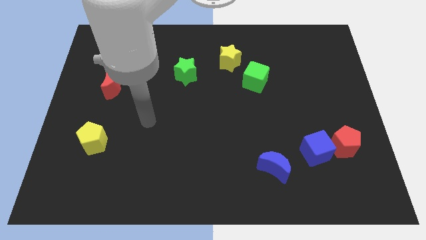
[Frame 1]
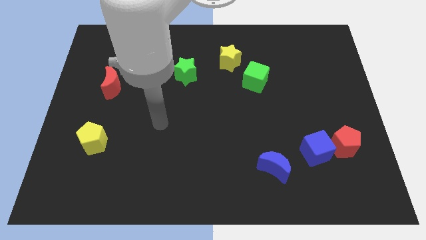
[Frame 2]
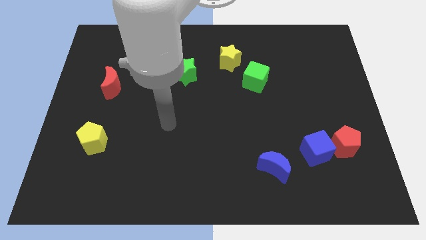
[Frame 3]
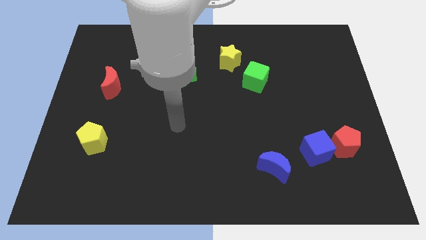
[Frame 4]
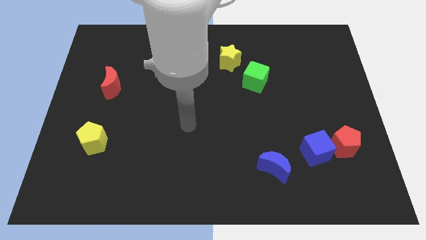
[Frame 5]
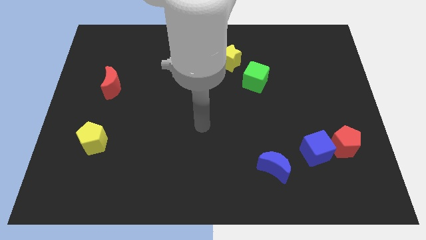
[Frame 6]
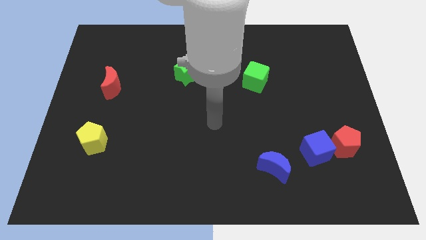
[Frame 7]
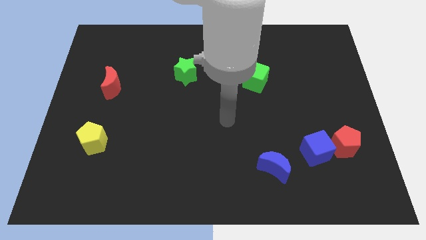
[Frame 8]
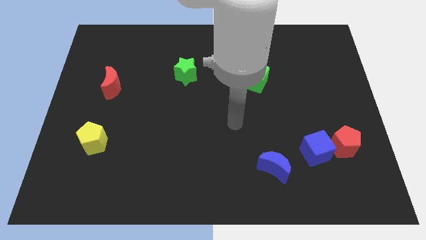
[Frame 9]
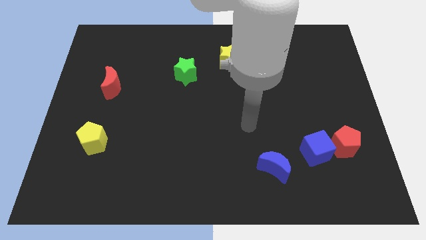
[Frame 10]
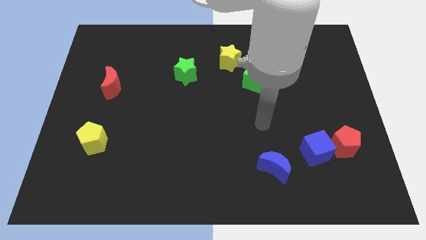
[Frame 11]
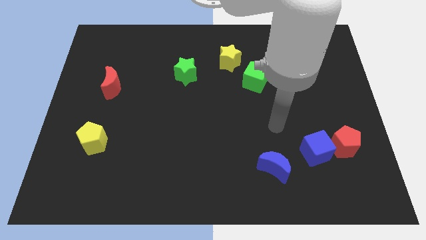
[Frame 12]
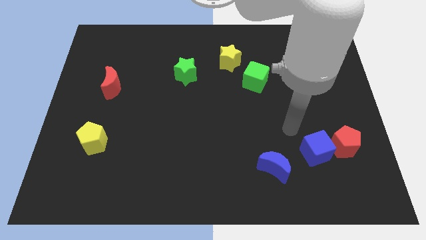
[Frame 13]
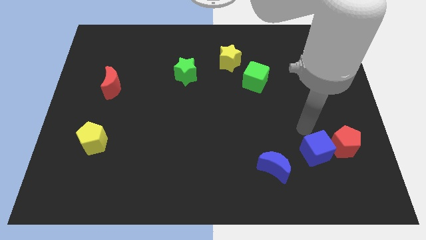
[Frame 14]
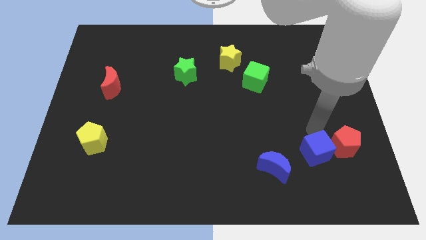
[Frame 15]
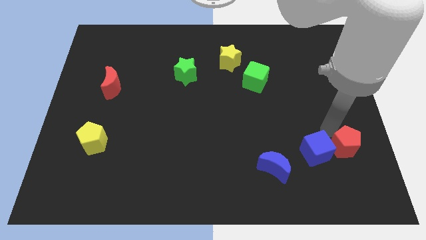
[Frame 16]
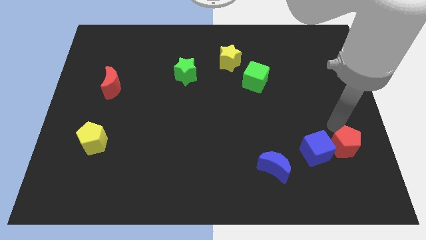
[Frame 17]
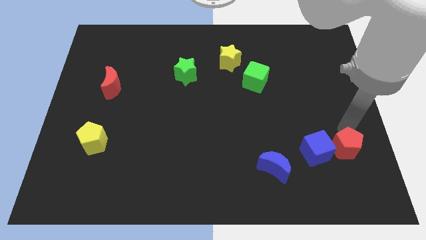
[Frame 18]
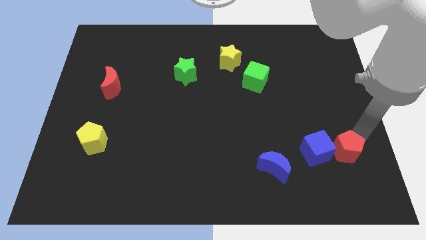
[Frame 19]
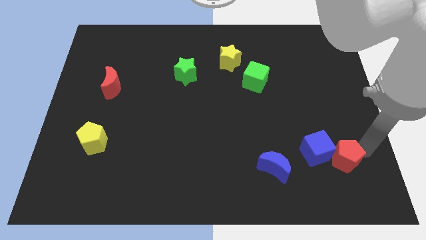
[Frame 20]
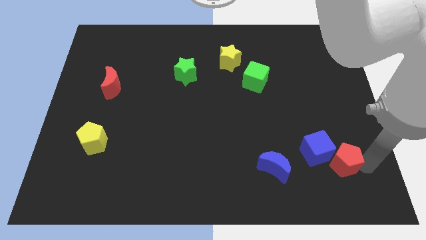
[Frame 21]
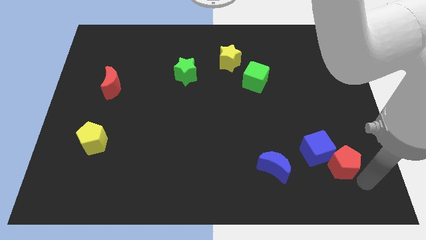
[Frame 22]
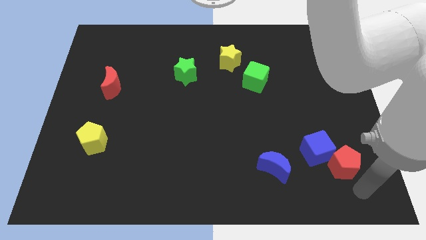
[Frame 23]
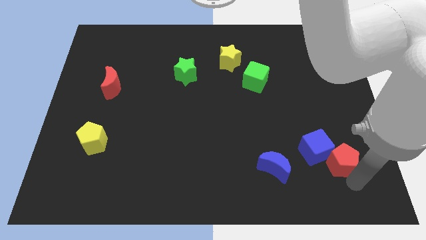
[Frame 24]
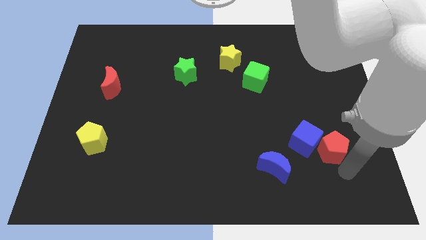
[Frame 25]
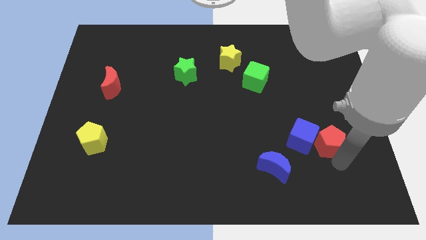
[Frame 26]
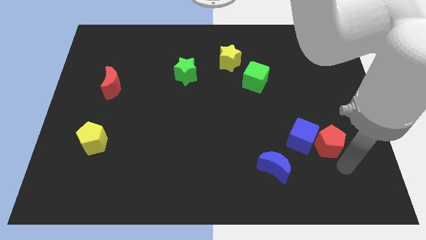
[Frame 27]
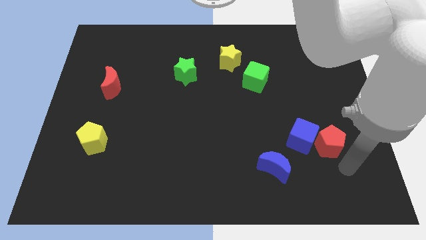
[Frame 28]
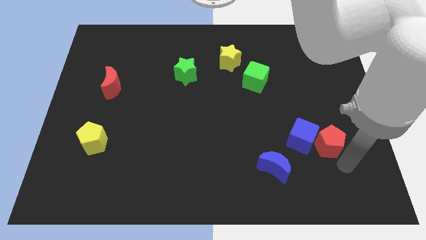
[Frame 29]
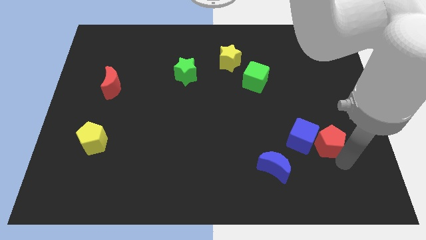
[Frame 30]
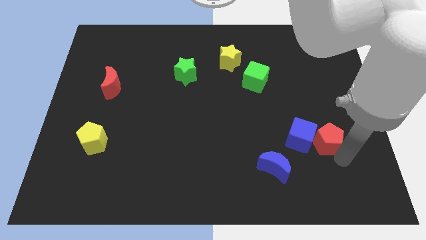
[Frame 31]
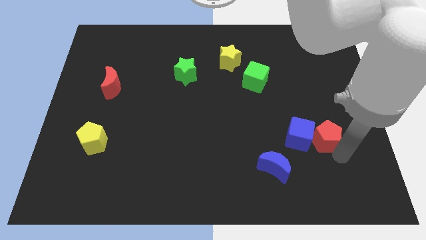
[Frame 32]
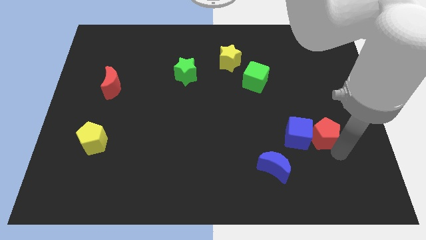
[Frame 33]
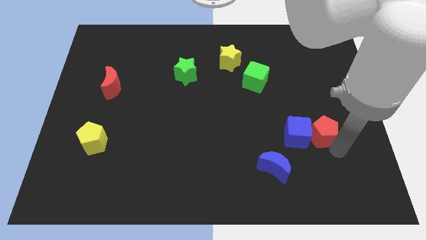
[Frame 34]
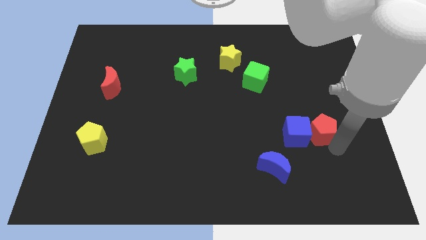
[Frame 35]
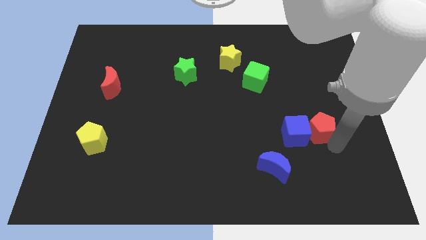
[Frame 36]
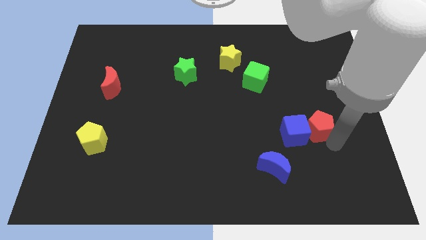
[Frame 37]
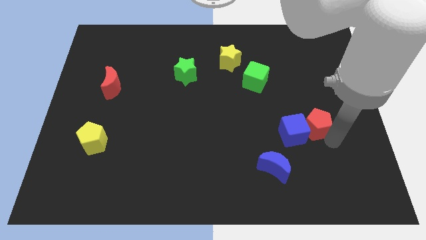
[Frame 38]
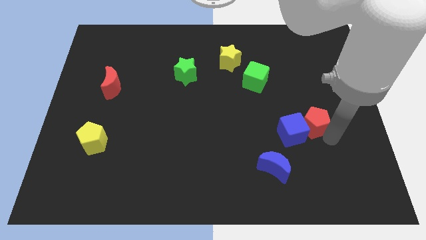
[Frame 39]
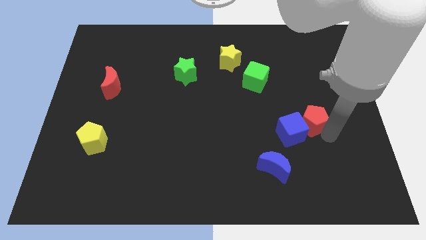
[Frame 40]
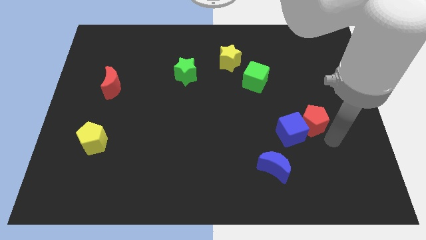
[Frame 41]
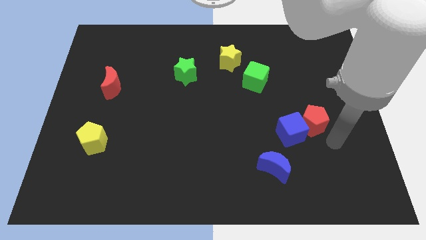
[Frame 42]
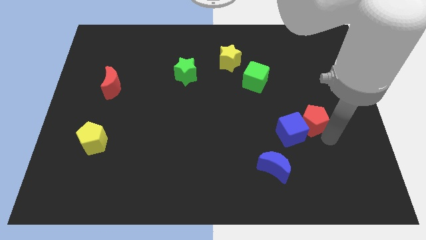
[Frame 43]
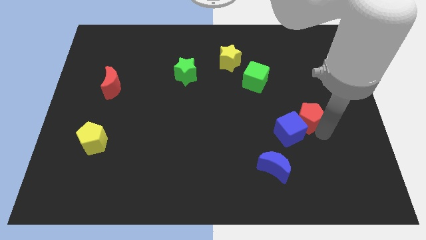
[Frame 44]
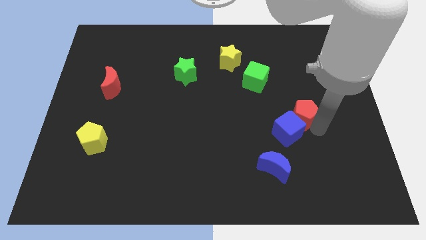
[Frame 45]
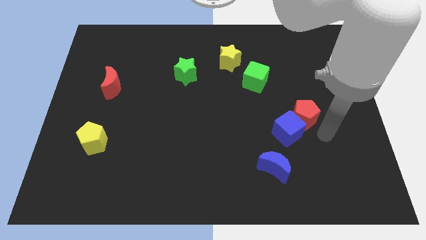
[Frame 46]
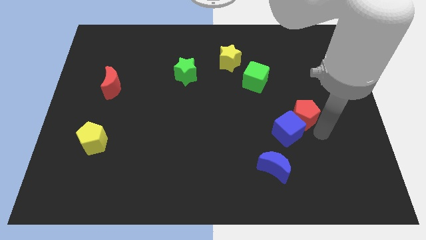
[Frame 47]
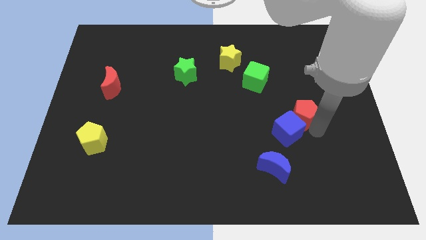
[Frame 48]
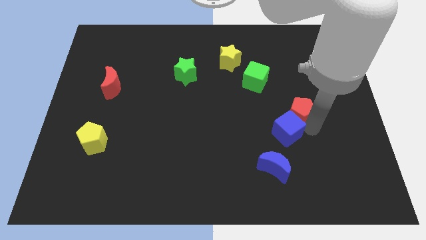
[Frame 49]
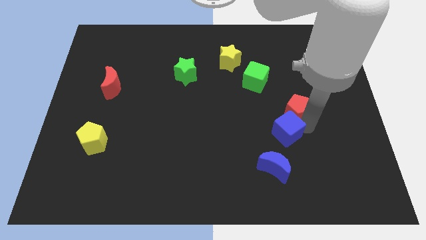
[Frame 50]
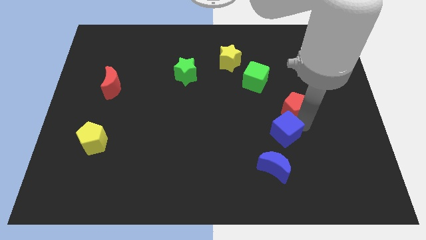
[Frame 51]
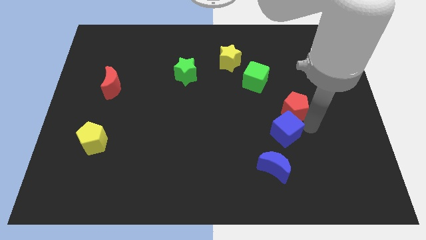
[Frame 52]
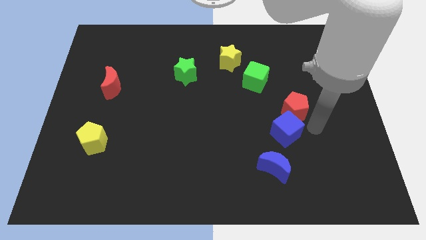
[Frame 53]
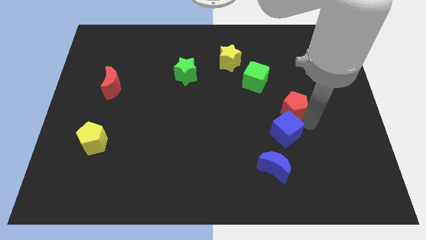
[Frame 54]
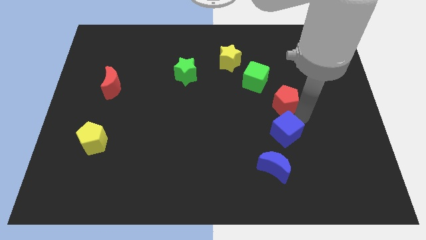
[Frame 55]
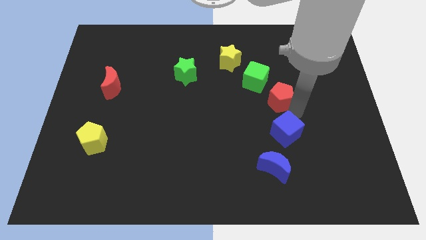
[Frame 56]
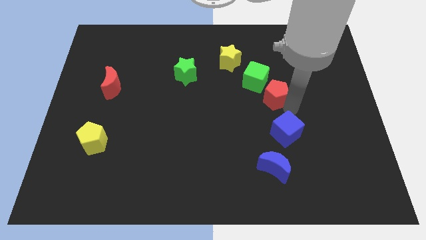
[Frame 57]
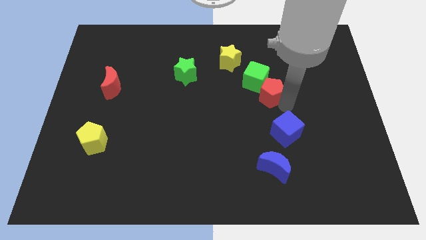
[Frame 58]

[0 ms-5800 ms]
put the red pentagon next to the green cube

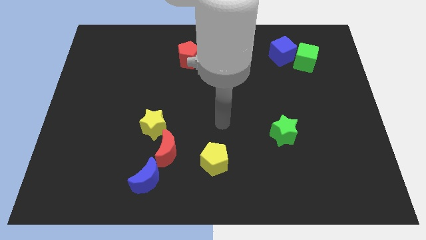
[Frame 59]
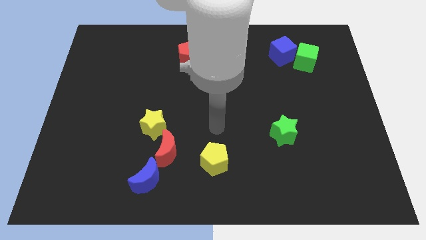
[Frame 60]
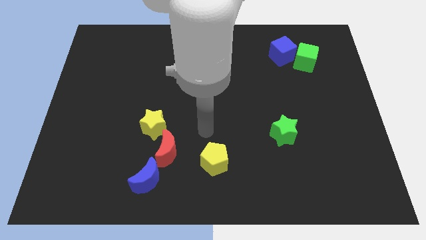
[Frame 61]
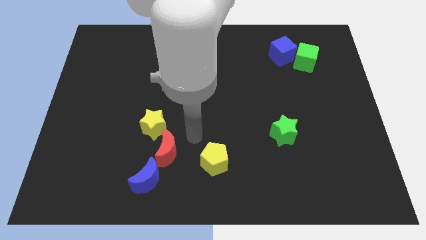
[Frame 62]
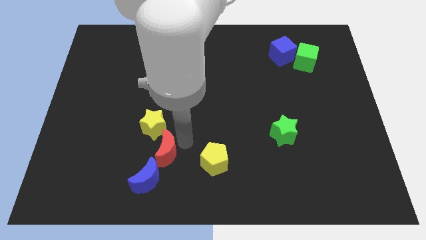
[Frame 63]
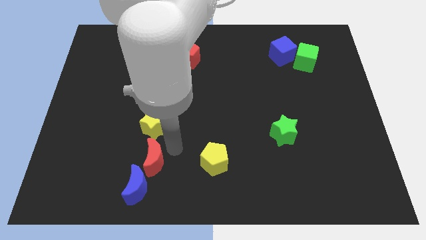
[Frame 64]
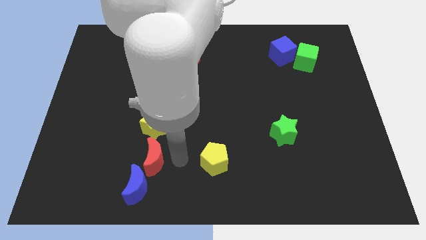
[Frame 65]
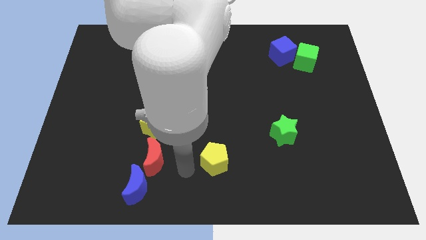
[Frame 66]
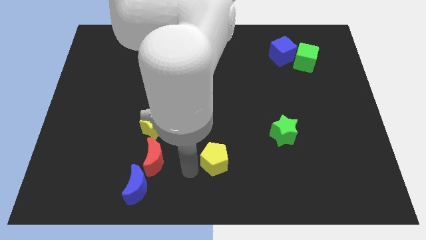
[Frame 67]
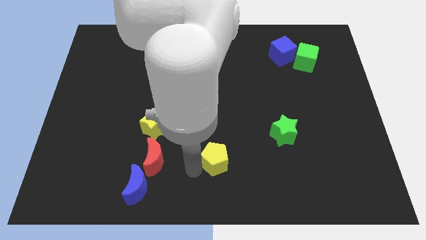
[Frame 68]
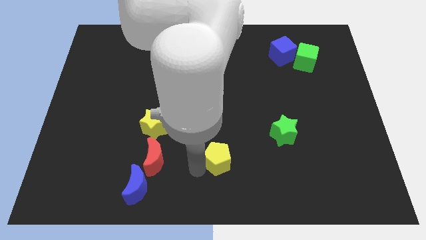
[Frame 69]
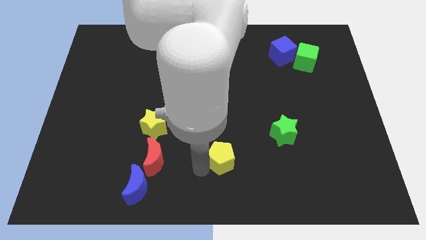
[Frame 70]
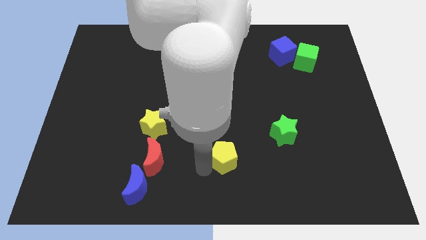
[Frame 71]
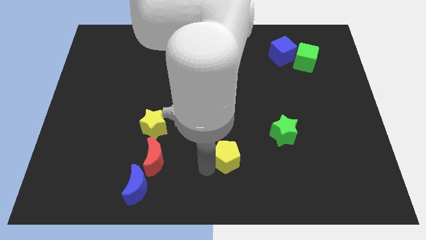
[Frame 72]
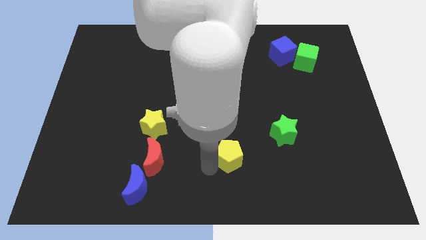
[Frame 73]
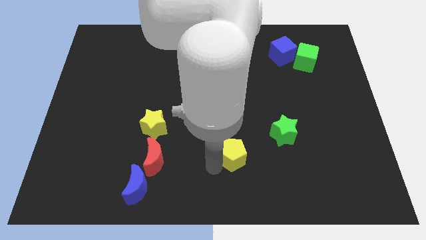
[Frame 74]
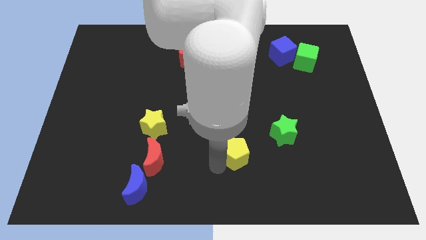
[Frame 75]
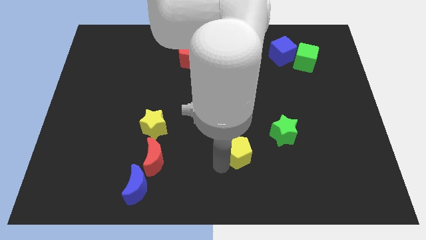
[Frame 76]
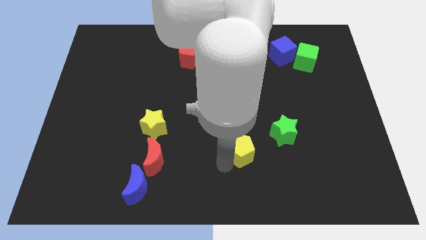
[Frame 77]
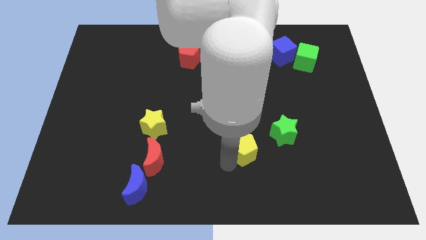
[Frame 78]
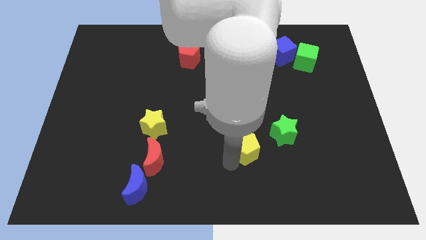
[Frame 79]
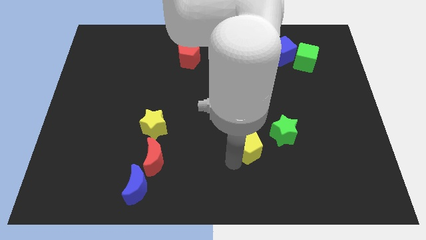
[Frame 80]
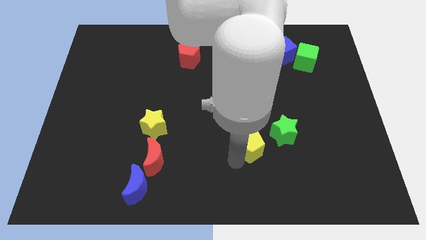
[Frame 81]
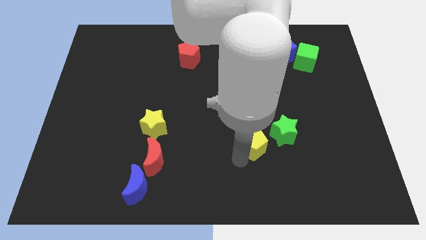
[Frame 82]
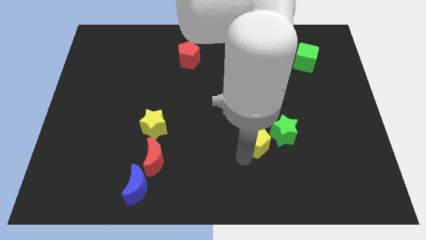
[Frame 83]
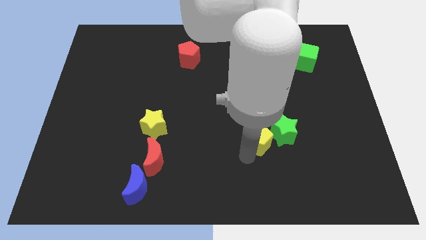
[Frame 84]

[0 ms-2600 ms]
slide the yellow pentagon next to the green star
